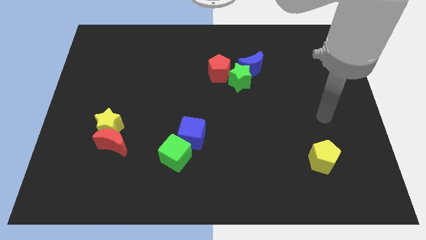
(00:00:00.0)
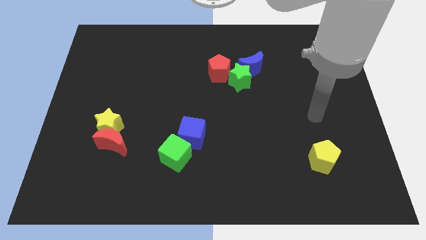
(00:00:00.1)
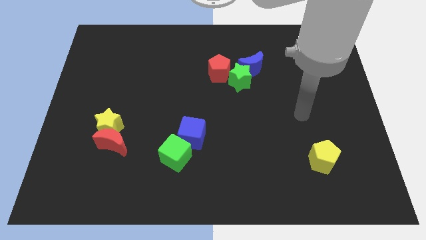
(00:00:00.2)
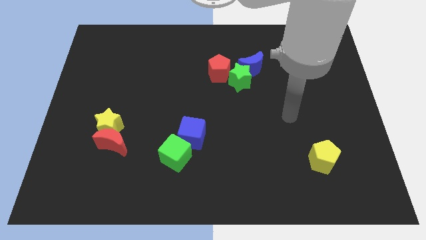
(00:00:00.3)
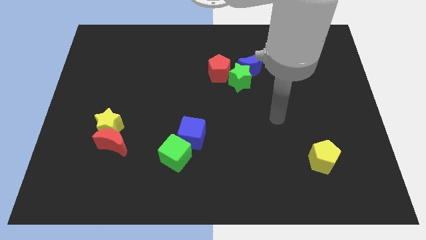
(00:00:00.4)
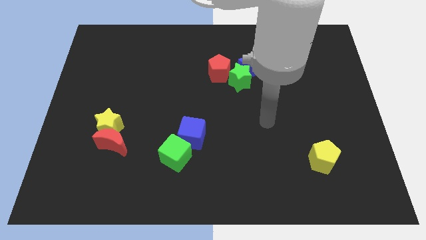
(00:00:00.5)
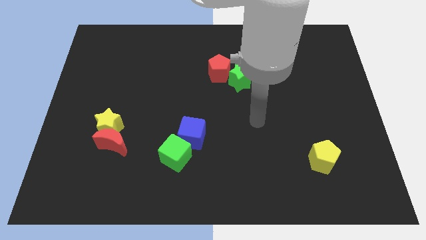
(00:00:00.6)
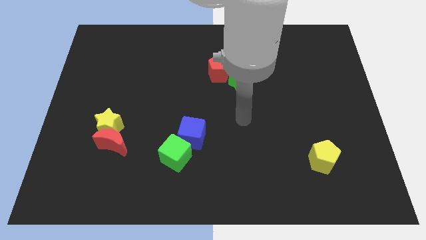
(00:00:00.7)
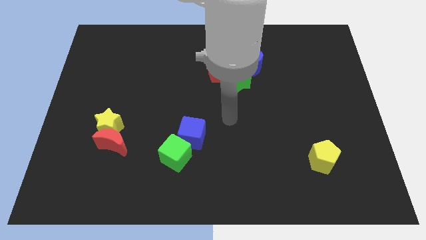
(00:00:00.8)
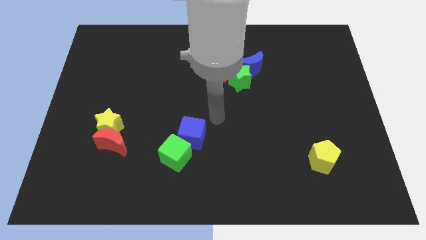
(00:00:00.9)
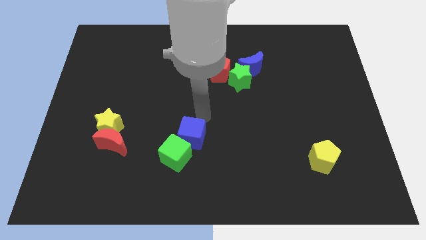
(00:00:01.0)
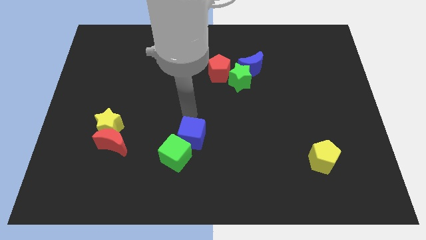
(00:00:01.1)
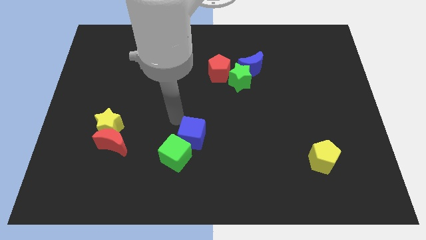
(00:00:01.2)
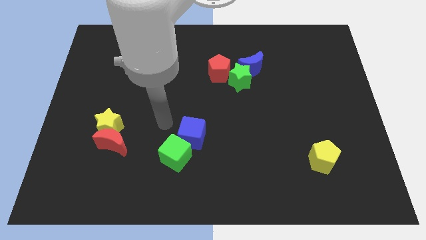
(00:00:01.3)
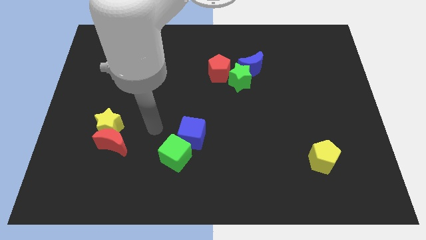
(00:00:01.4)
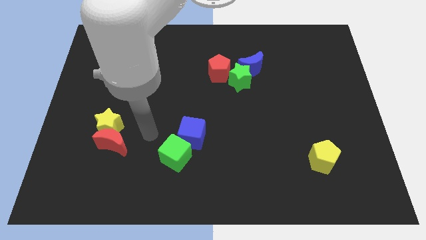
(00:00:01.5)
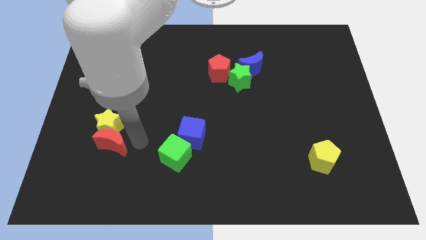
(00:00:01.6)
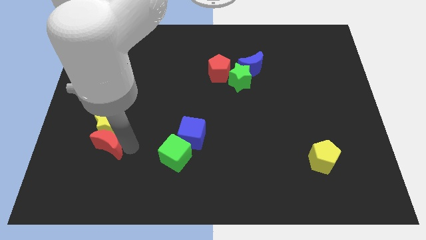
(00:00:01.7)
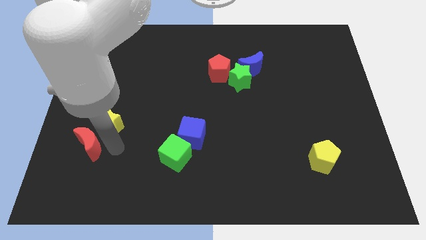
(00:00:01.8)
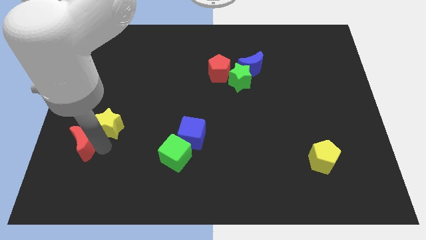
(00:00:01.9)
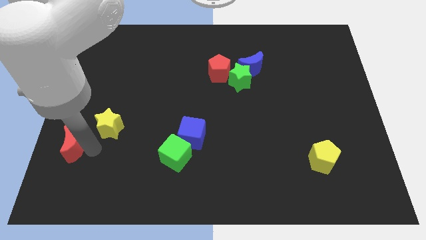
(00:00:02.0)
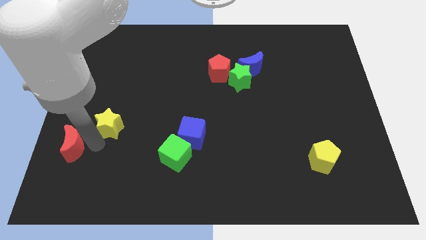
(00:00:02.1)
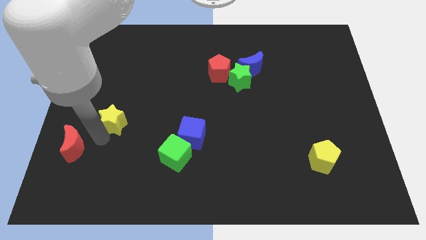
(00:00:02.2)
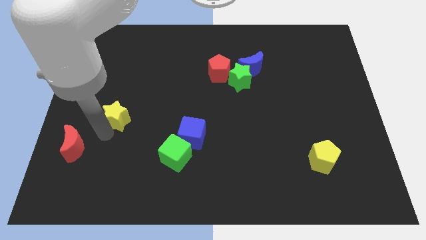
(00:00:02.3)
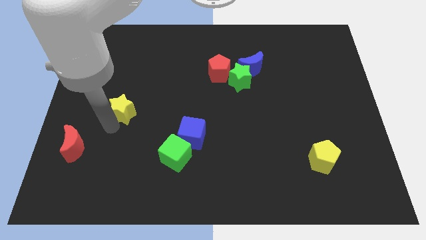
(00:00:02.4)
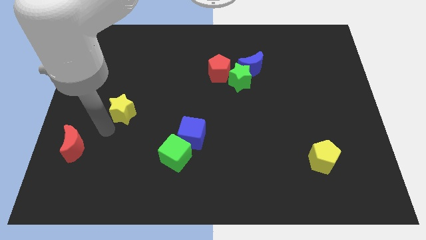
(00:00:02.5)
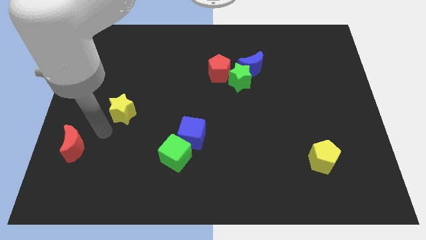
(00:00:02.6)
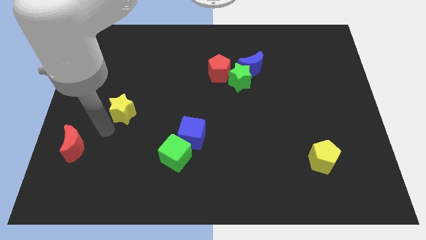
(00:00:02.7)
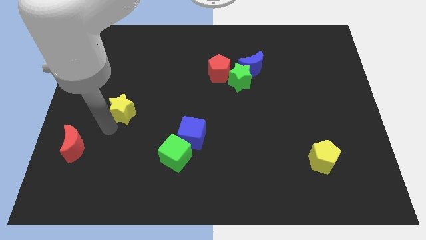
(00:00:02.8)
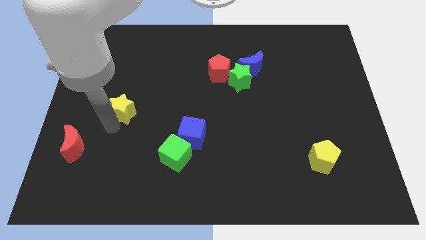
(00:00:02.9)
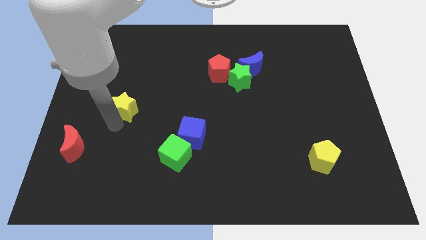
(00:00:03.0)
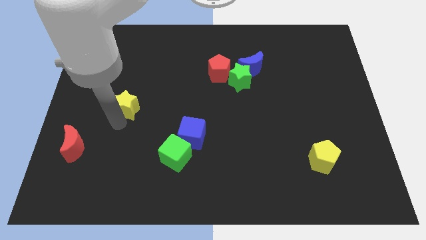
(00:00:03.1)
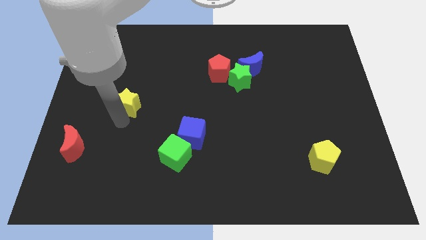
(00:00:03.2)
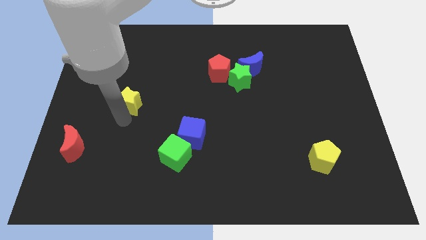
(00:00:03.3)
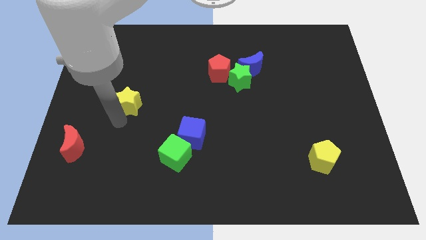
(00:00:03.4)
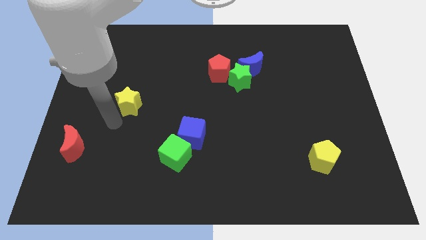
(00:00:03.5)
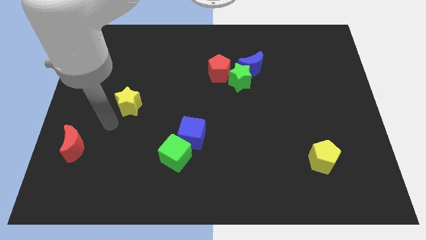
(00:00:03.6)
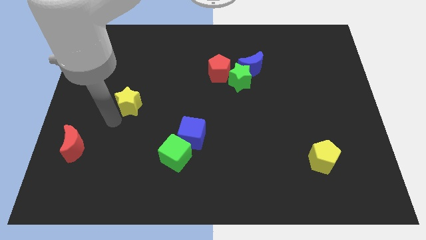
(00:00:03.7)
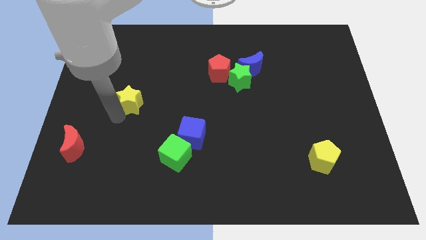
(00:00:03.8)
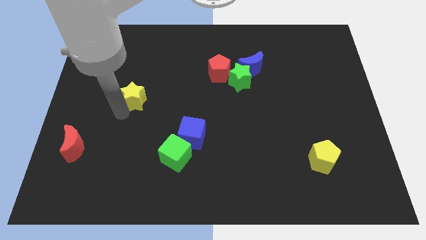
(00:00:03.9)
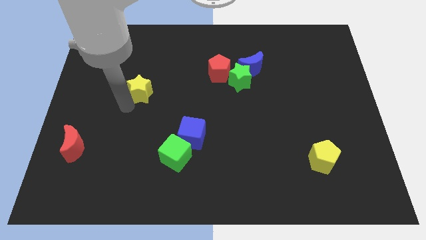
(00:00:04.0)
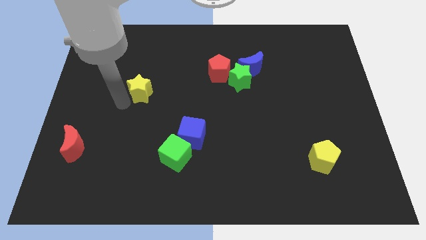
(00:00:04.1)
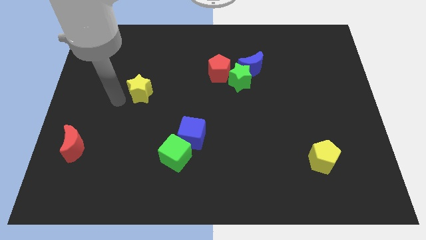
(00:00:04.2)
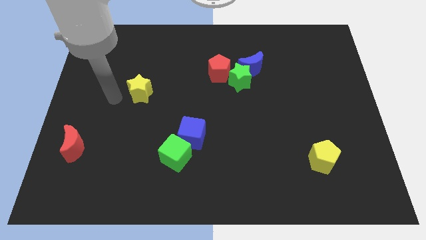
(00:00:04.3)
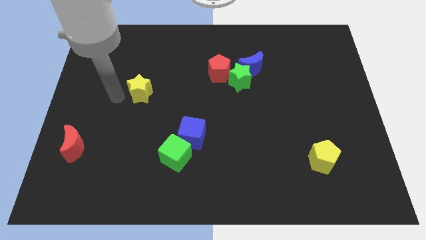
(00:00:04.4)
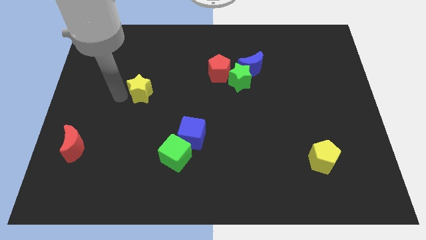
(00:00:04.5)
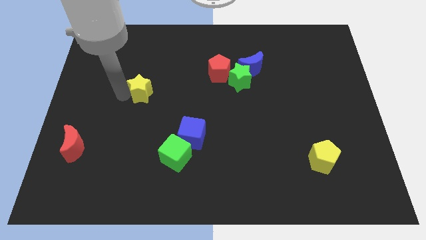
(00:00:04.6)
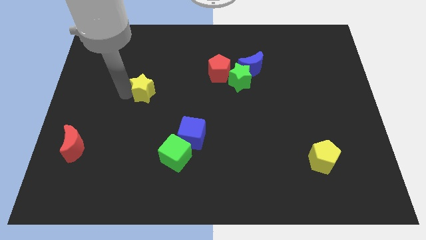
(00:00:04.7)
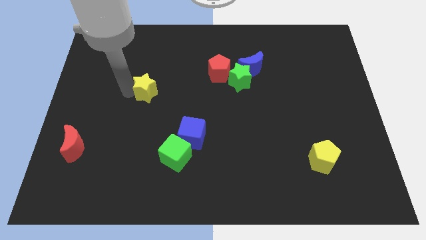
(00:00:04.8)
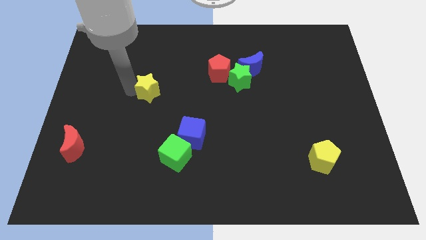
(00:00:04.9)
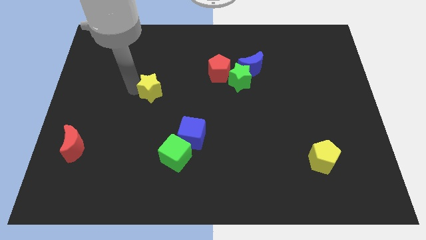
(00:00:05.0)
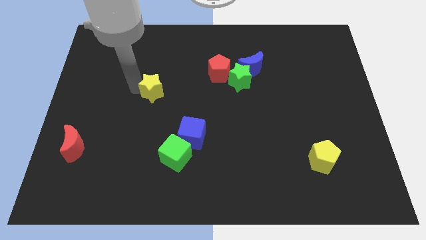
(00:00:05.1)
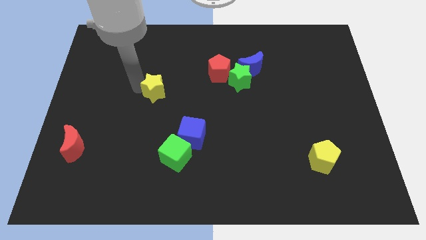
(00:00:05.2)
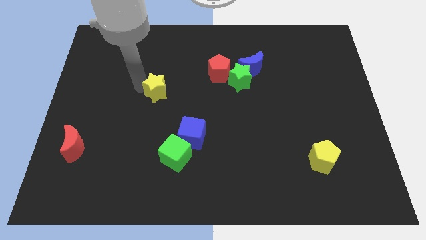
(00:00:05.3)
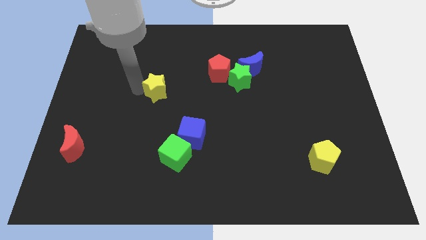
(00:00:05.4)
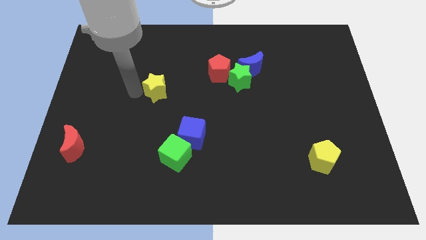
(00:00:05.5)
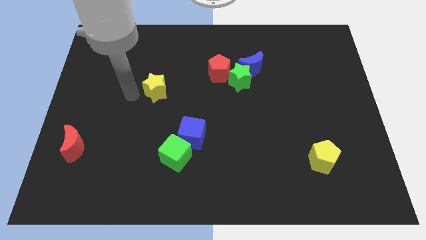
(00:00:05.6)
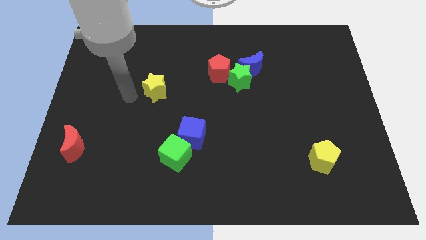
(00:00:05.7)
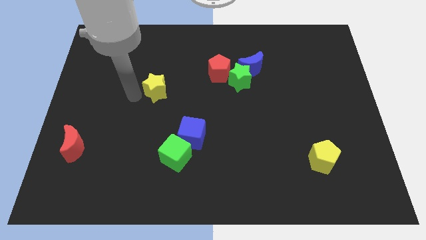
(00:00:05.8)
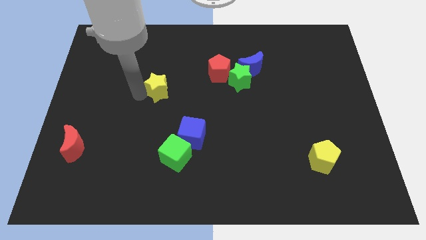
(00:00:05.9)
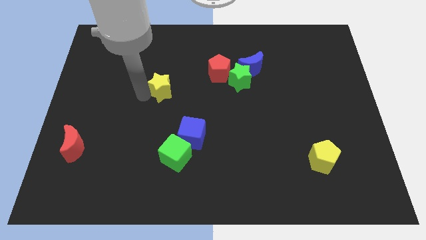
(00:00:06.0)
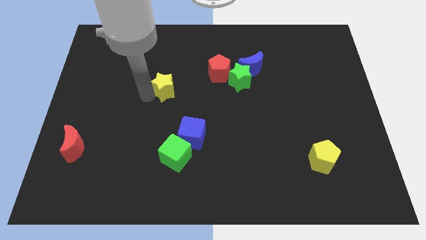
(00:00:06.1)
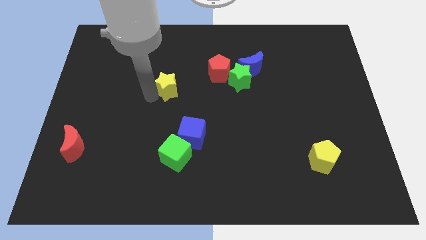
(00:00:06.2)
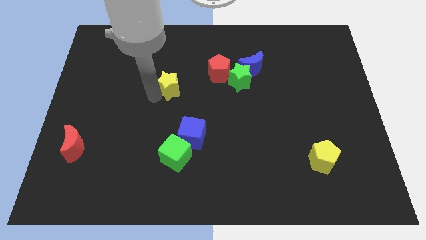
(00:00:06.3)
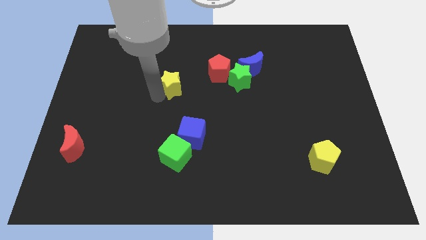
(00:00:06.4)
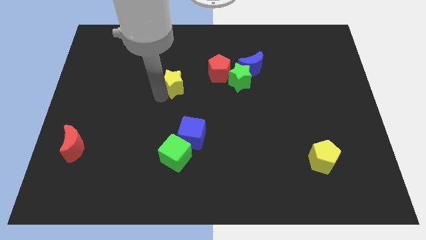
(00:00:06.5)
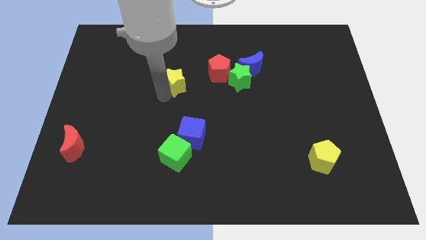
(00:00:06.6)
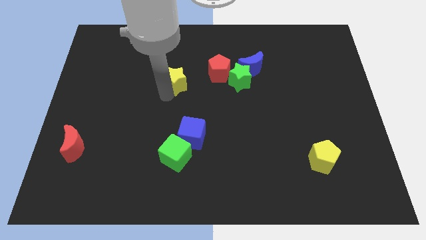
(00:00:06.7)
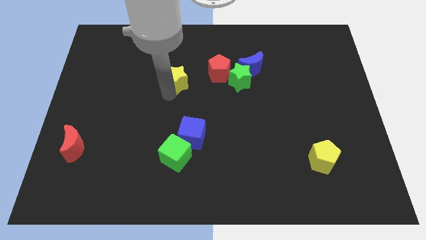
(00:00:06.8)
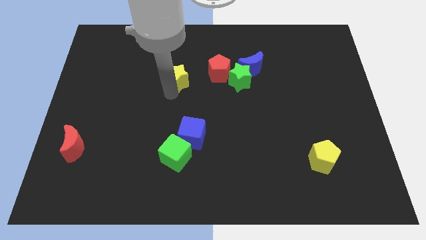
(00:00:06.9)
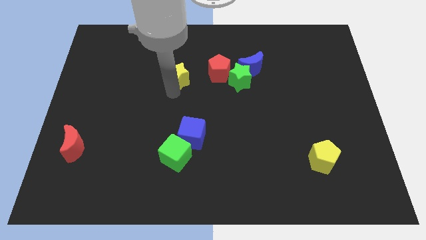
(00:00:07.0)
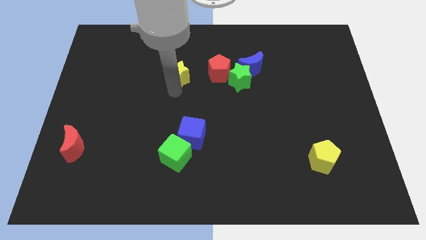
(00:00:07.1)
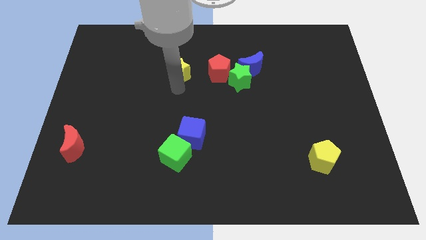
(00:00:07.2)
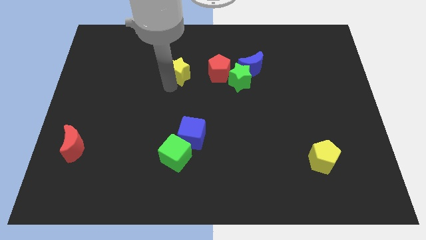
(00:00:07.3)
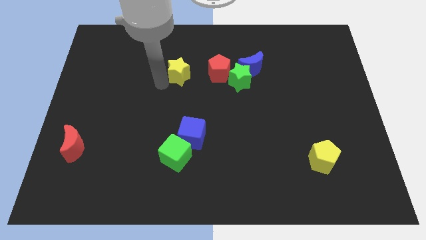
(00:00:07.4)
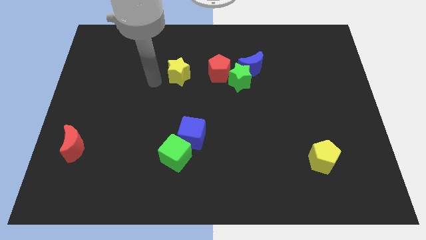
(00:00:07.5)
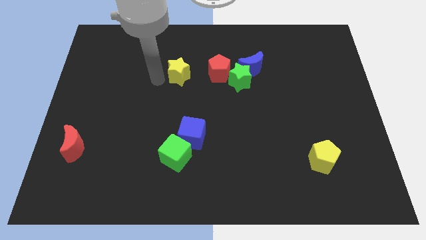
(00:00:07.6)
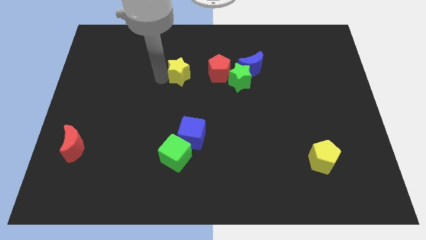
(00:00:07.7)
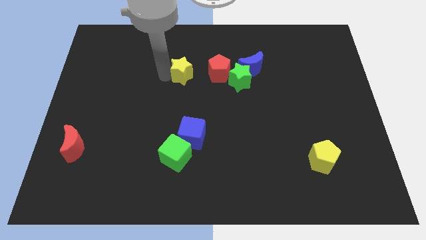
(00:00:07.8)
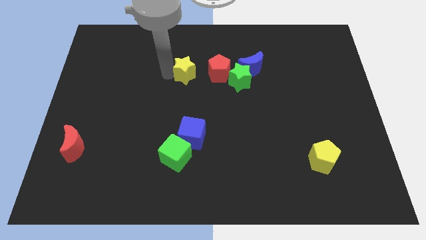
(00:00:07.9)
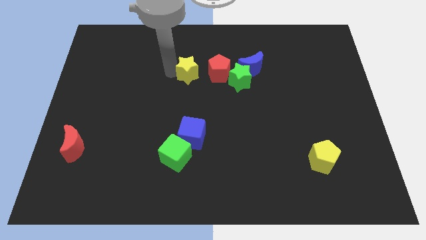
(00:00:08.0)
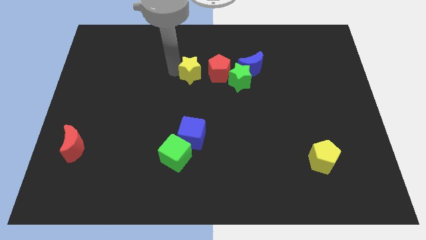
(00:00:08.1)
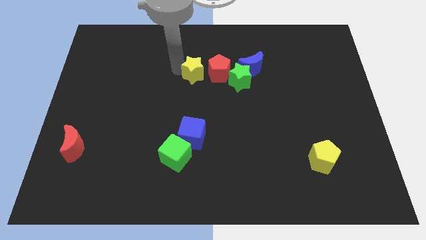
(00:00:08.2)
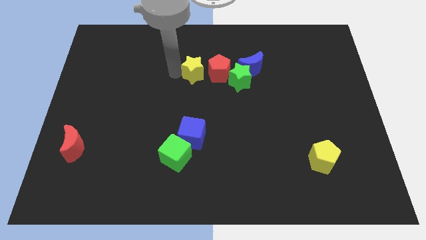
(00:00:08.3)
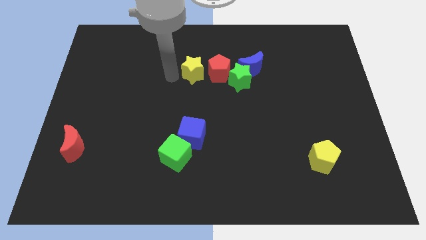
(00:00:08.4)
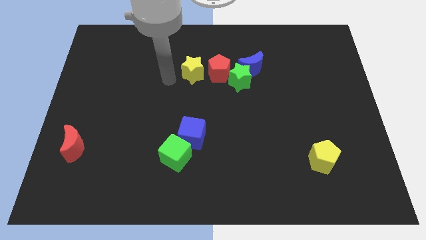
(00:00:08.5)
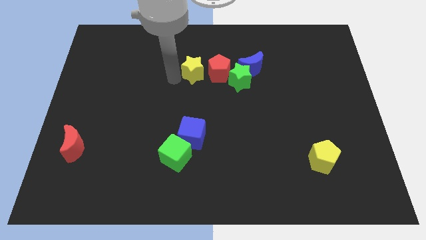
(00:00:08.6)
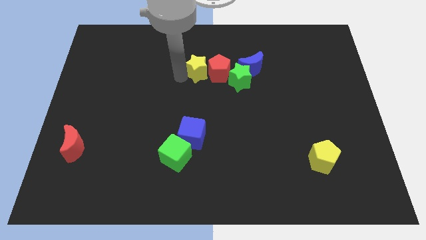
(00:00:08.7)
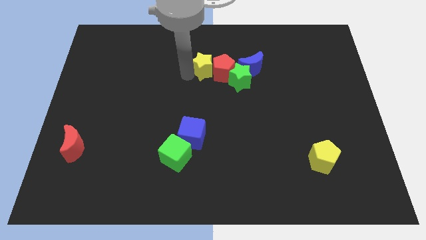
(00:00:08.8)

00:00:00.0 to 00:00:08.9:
slide the yellow star to the top left of the green star
